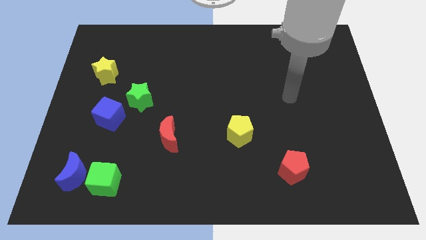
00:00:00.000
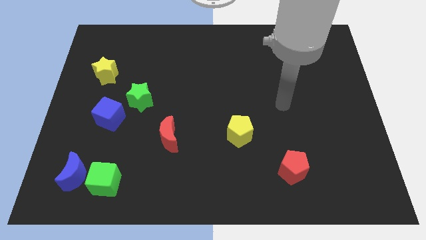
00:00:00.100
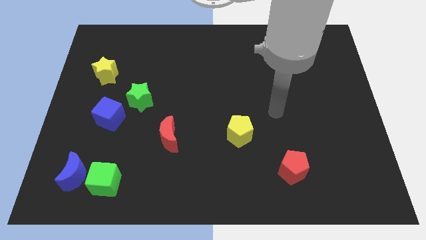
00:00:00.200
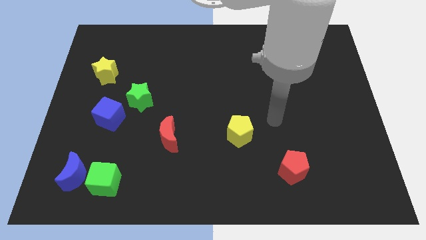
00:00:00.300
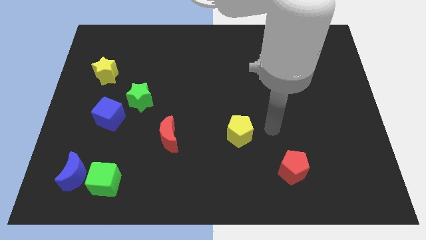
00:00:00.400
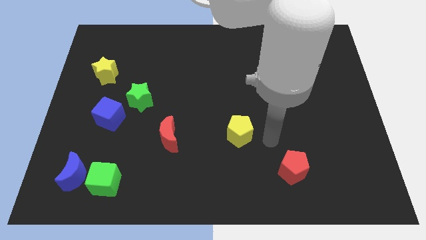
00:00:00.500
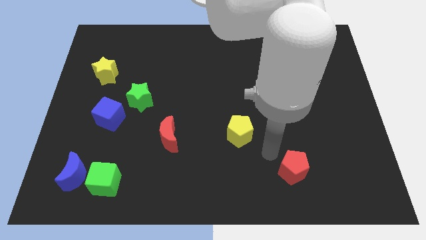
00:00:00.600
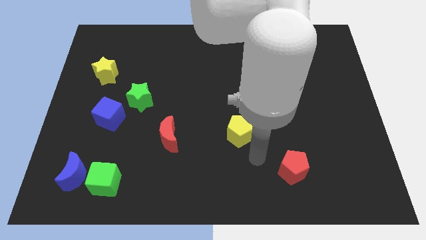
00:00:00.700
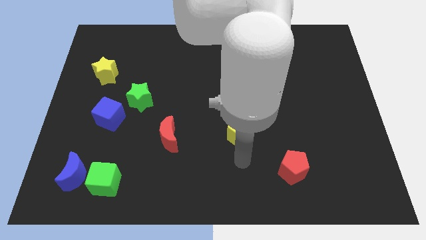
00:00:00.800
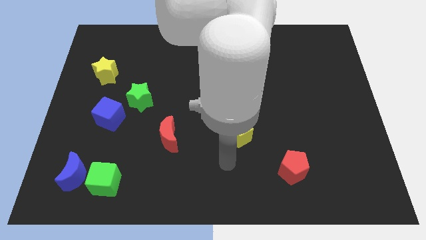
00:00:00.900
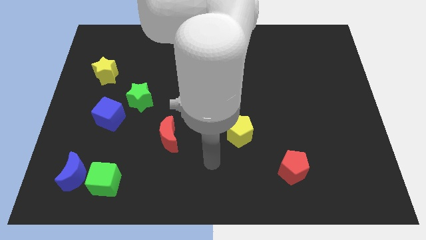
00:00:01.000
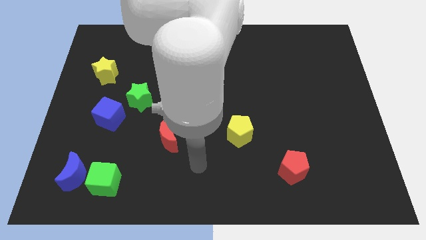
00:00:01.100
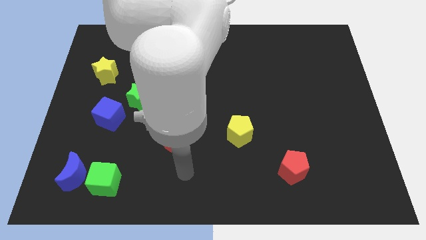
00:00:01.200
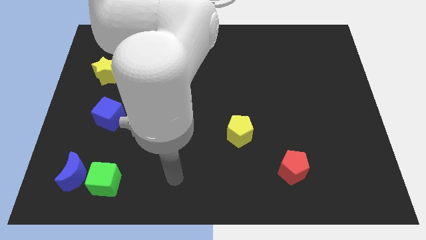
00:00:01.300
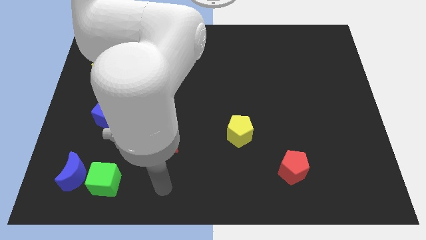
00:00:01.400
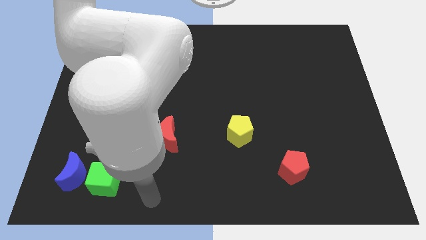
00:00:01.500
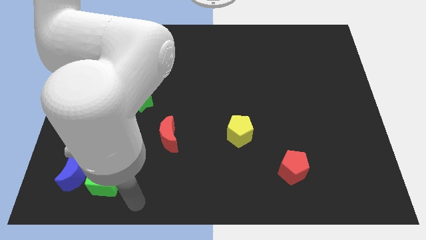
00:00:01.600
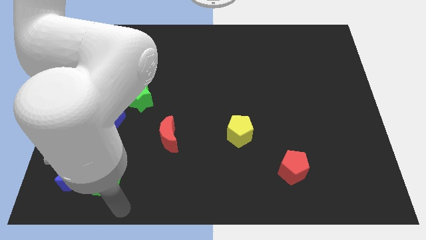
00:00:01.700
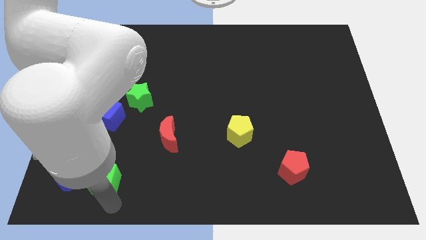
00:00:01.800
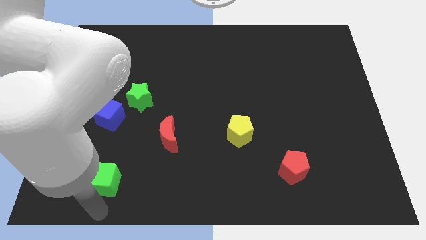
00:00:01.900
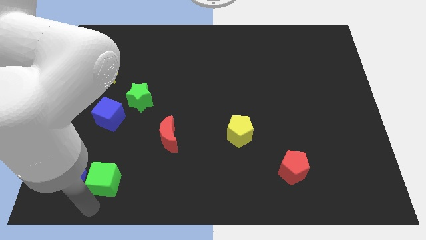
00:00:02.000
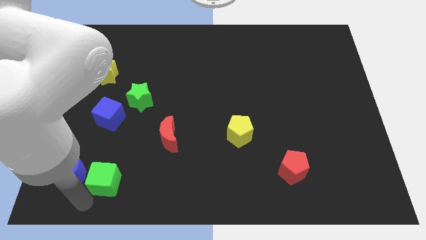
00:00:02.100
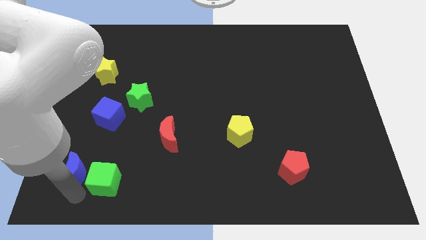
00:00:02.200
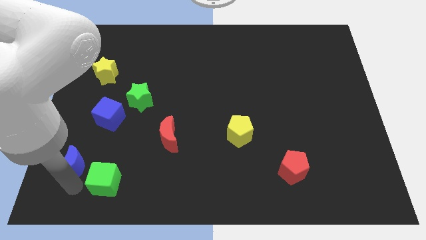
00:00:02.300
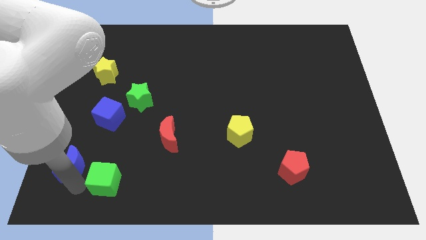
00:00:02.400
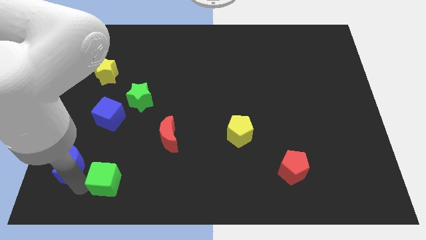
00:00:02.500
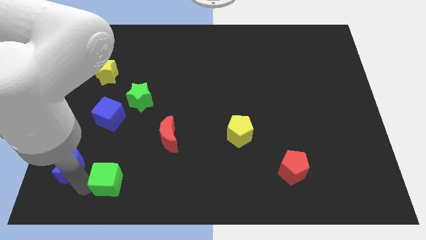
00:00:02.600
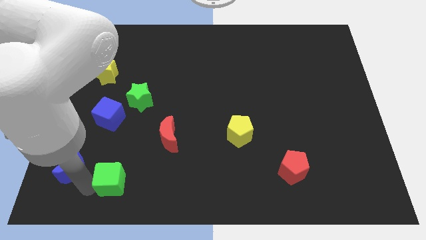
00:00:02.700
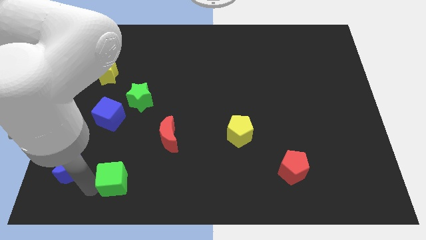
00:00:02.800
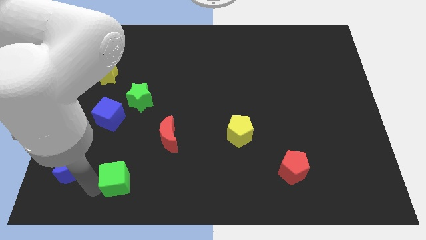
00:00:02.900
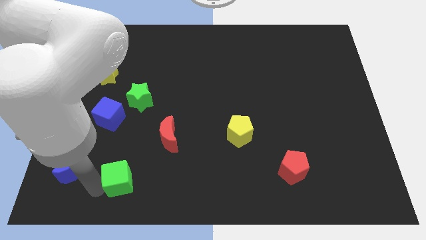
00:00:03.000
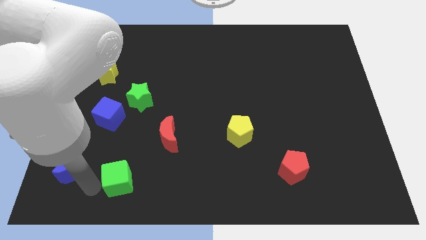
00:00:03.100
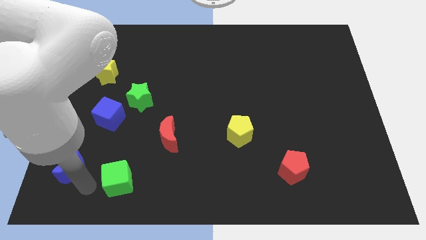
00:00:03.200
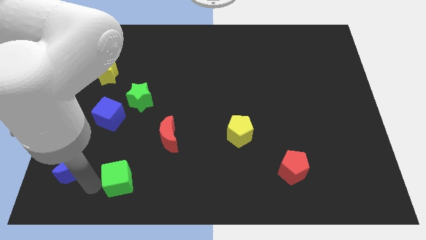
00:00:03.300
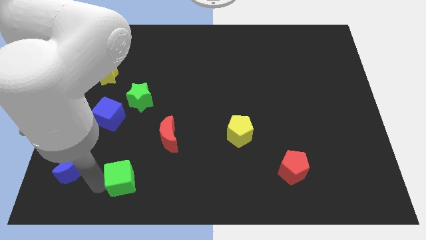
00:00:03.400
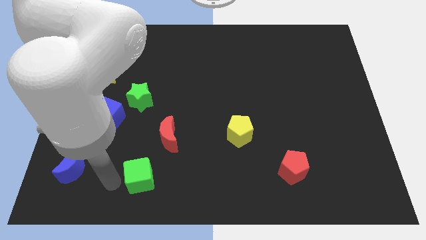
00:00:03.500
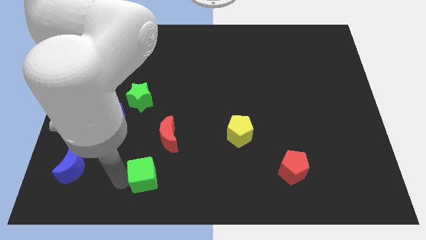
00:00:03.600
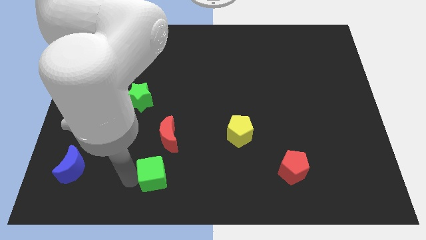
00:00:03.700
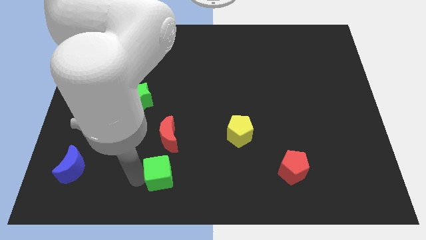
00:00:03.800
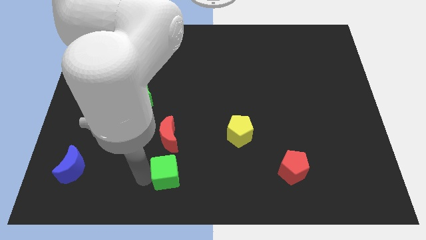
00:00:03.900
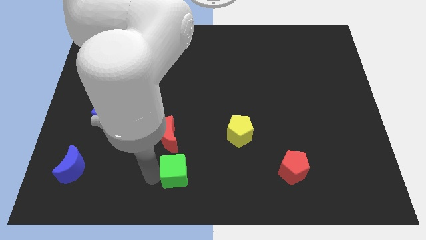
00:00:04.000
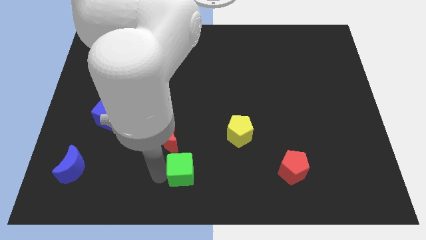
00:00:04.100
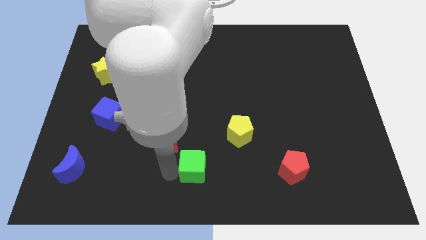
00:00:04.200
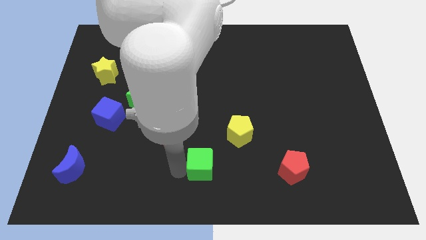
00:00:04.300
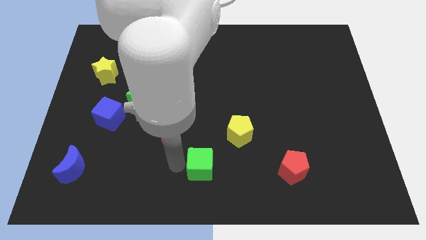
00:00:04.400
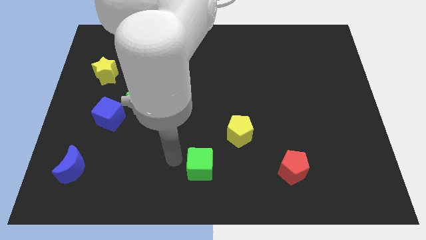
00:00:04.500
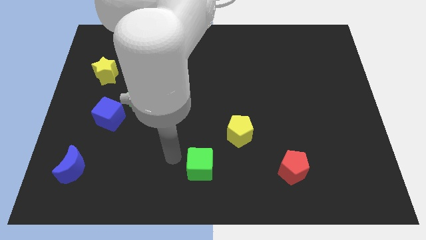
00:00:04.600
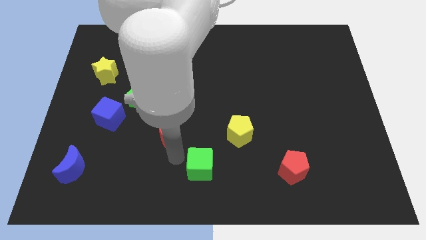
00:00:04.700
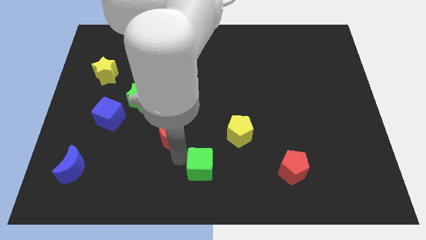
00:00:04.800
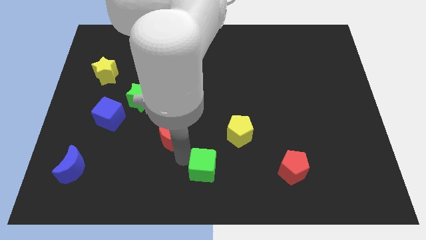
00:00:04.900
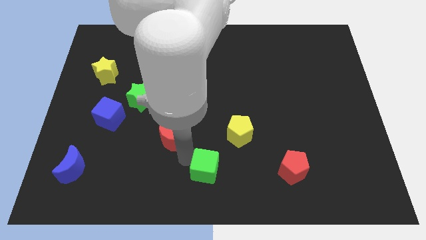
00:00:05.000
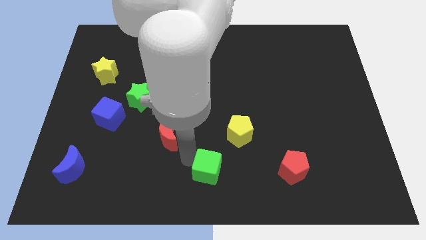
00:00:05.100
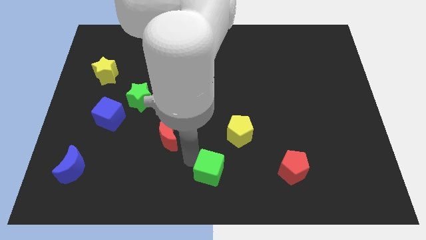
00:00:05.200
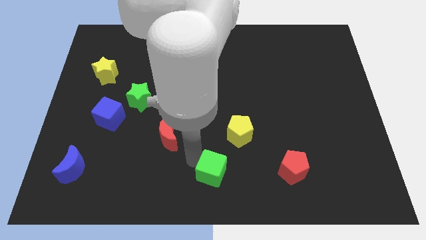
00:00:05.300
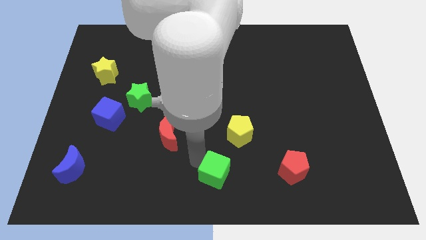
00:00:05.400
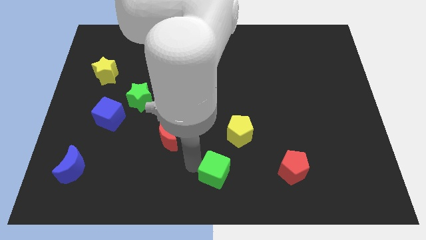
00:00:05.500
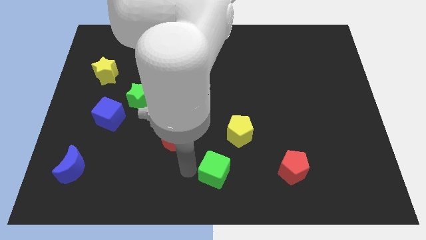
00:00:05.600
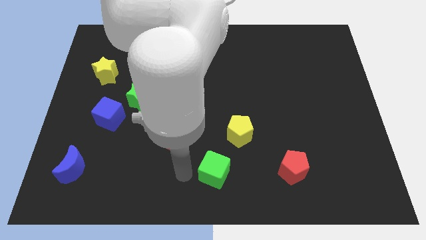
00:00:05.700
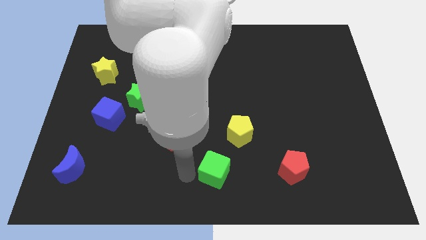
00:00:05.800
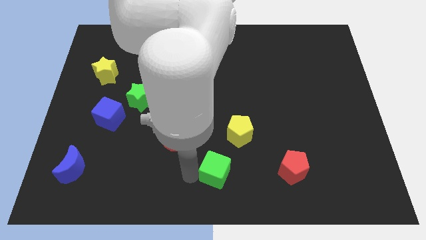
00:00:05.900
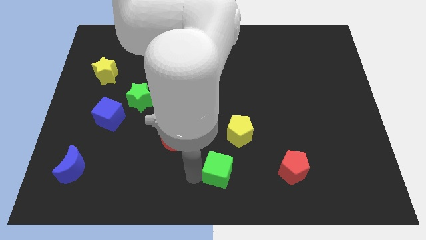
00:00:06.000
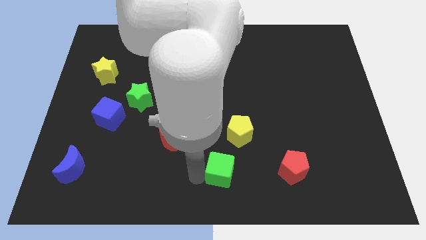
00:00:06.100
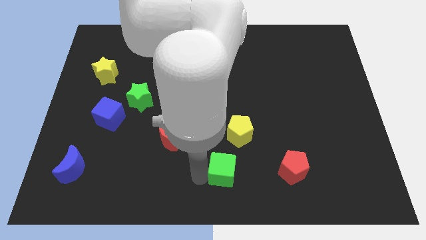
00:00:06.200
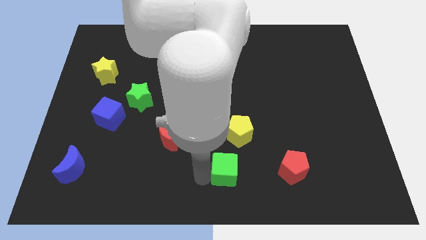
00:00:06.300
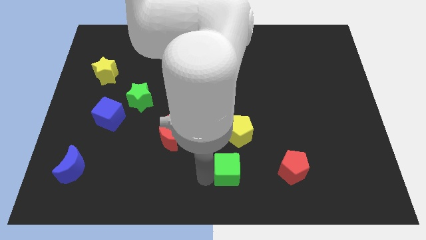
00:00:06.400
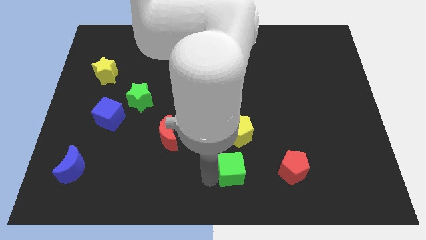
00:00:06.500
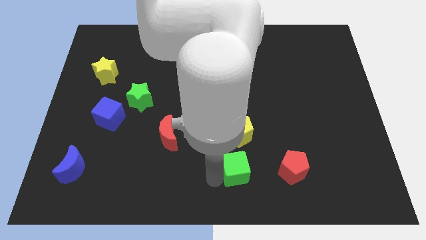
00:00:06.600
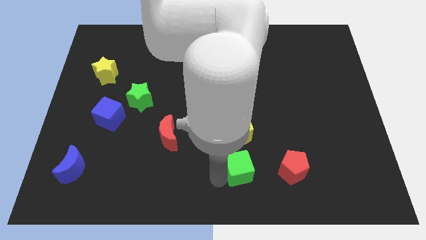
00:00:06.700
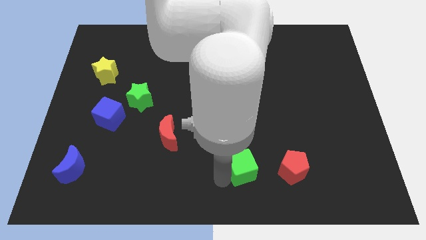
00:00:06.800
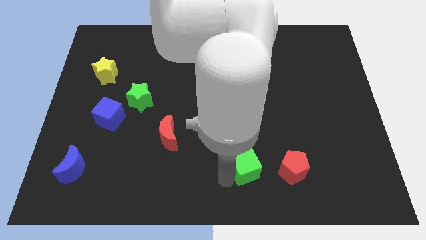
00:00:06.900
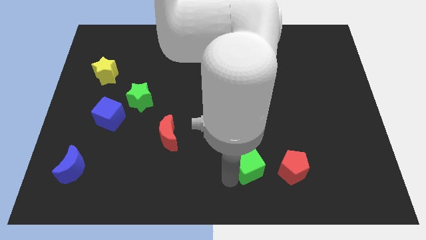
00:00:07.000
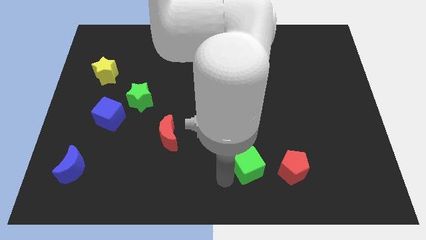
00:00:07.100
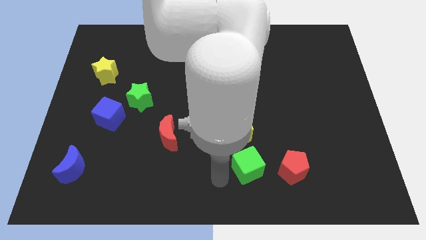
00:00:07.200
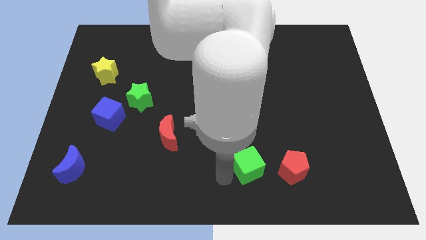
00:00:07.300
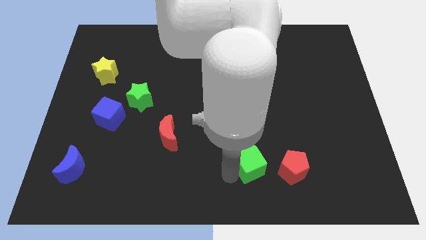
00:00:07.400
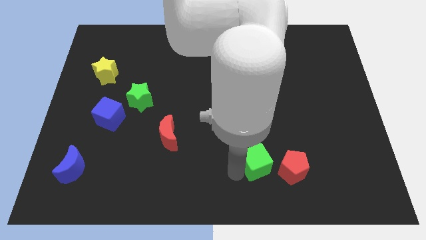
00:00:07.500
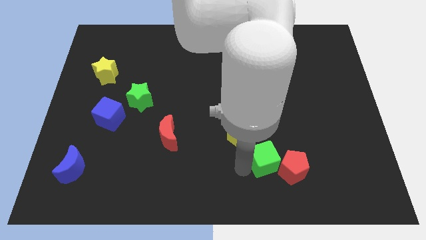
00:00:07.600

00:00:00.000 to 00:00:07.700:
move the green cube next to the red pentagon
